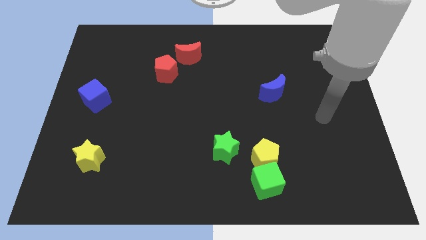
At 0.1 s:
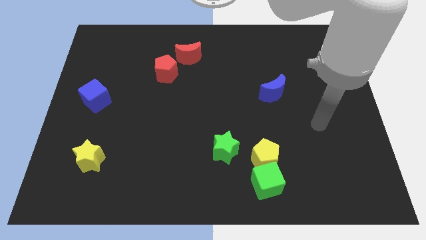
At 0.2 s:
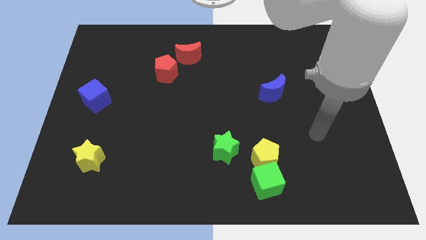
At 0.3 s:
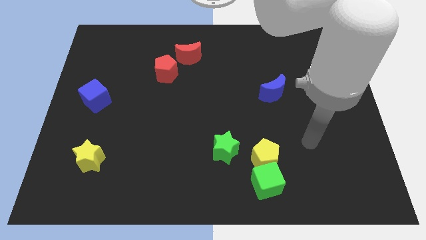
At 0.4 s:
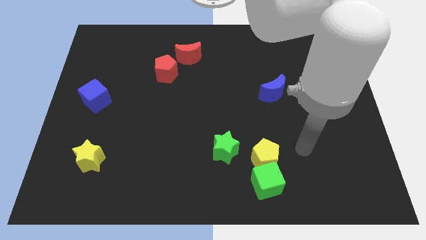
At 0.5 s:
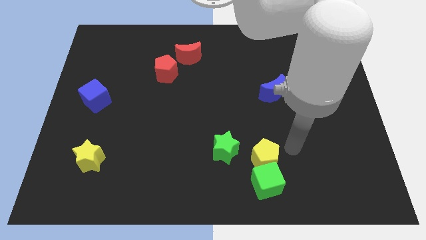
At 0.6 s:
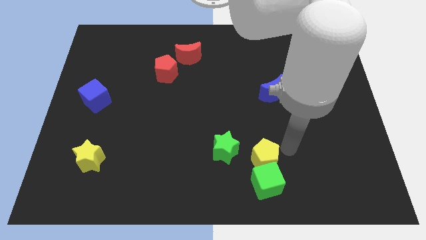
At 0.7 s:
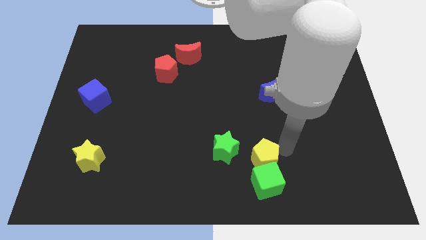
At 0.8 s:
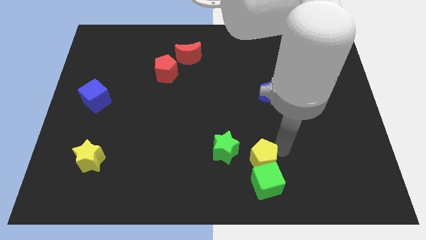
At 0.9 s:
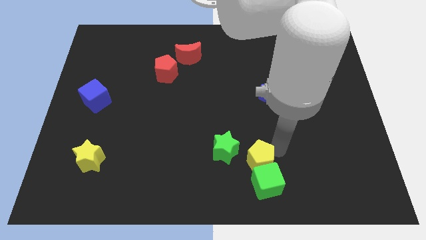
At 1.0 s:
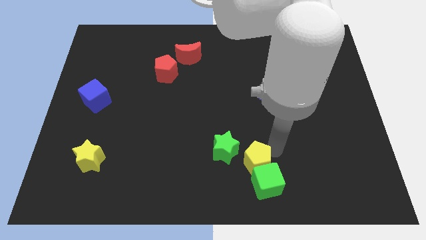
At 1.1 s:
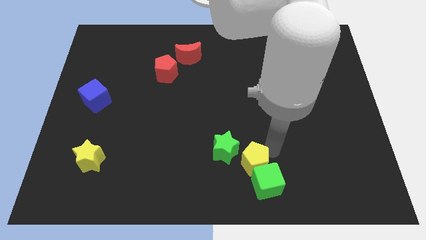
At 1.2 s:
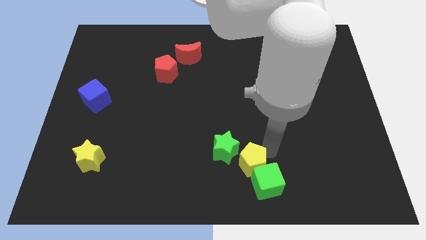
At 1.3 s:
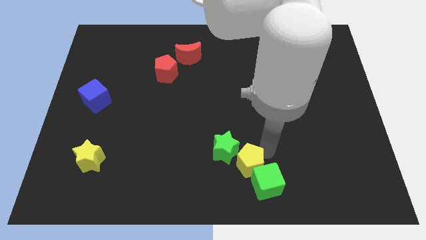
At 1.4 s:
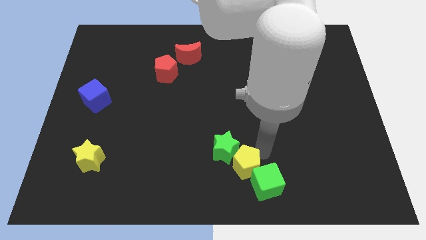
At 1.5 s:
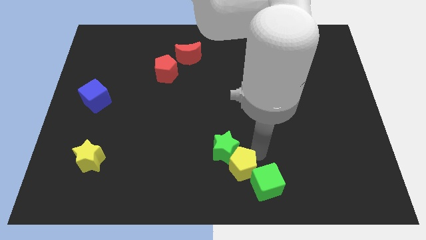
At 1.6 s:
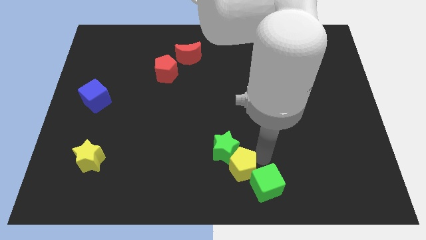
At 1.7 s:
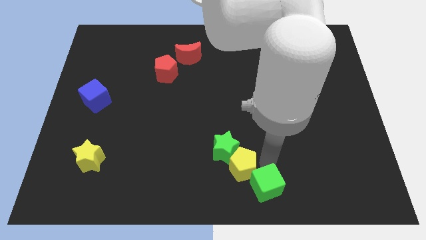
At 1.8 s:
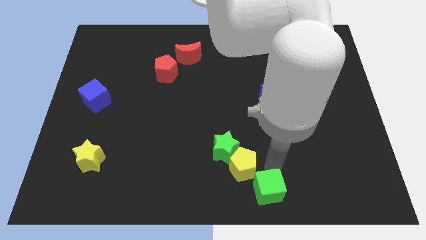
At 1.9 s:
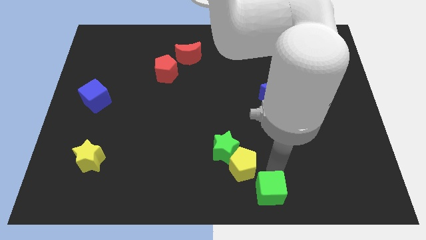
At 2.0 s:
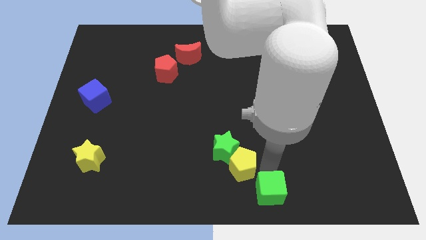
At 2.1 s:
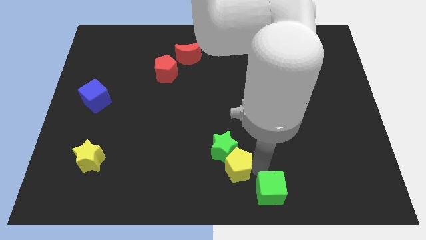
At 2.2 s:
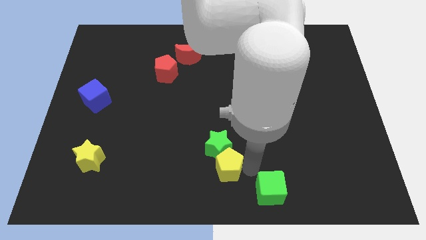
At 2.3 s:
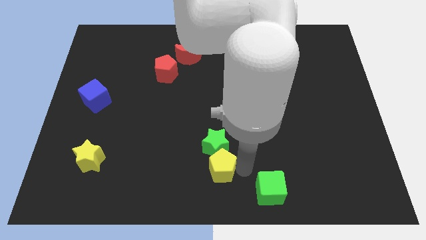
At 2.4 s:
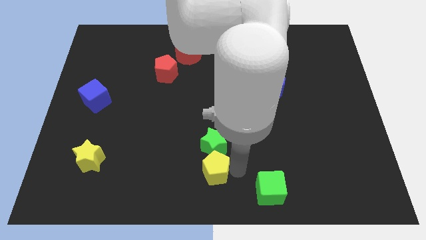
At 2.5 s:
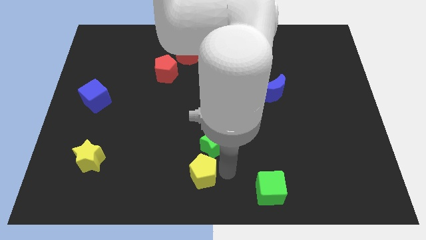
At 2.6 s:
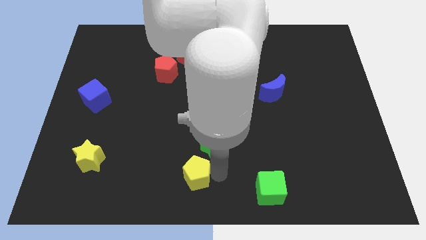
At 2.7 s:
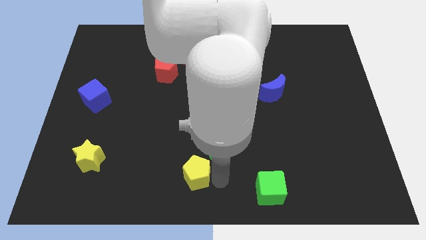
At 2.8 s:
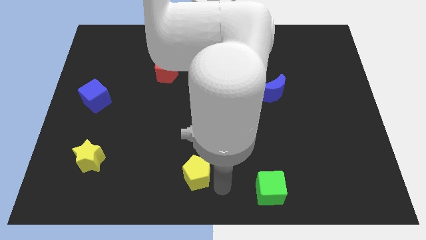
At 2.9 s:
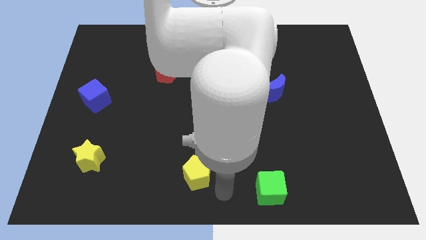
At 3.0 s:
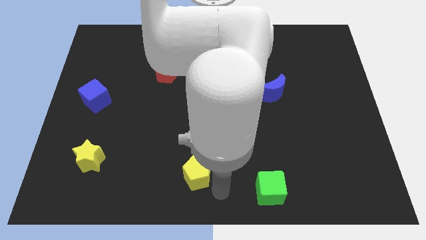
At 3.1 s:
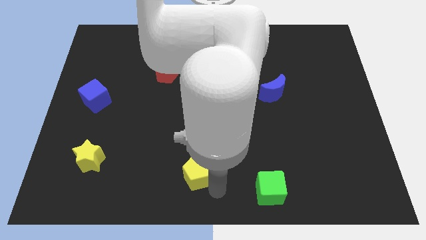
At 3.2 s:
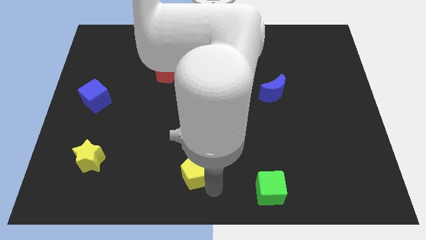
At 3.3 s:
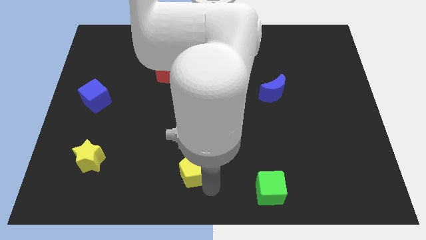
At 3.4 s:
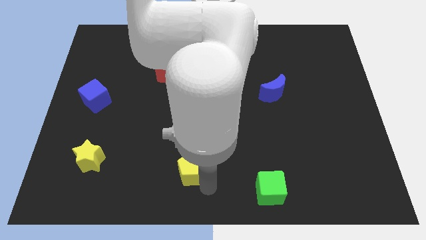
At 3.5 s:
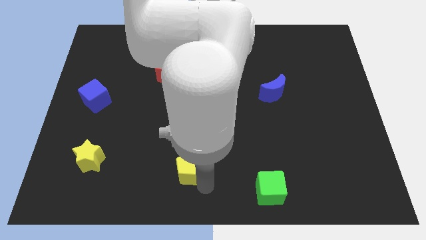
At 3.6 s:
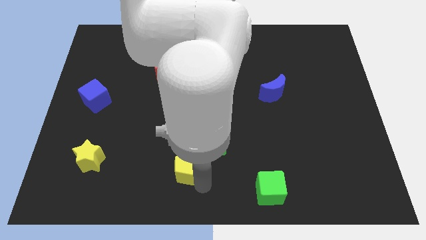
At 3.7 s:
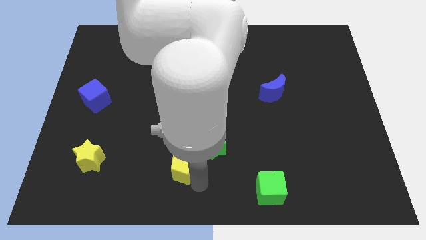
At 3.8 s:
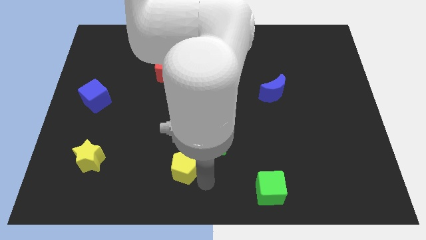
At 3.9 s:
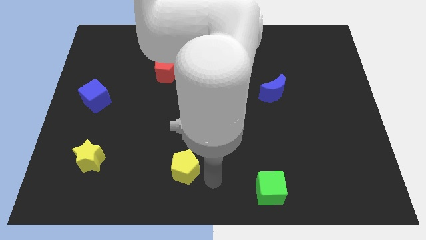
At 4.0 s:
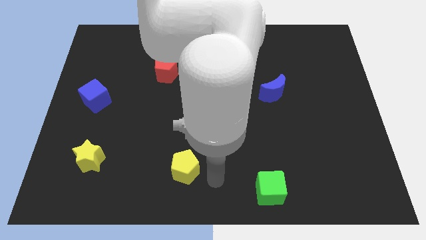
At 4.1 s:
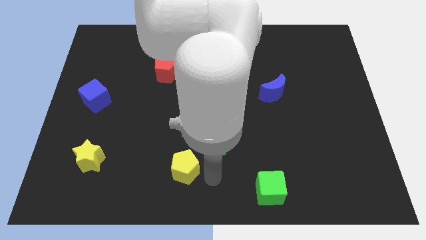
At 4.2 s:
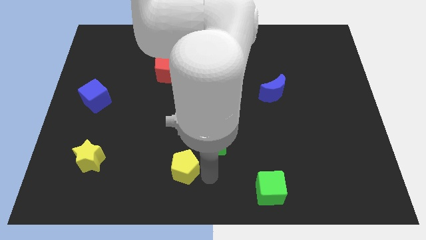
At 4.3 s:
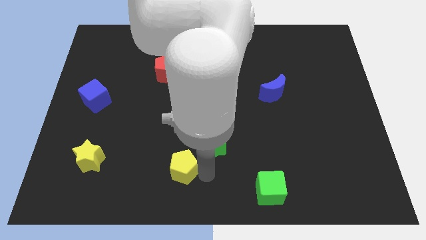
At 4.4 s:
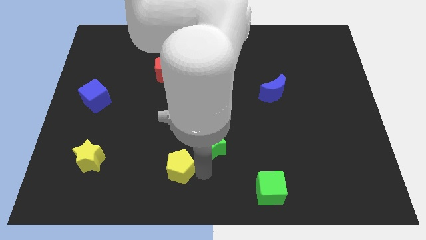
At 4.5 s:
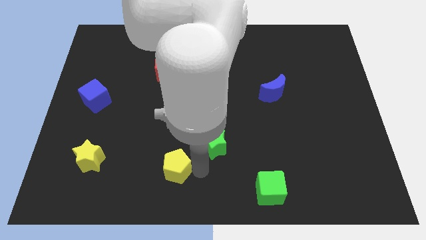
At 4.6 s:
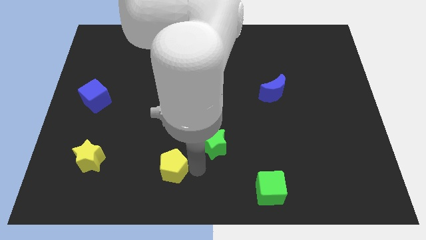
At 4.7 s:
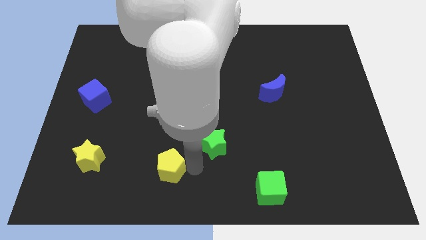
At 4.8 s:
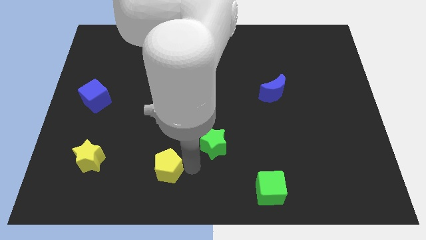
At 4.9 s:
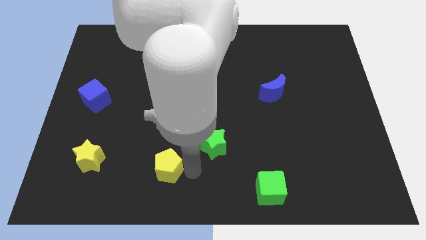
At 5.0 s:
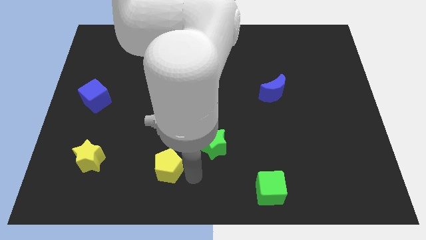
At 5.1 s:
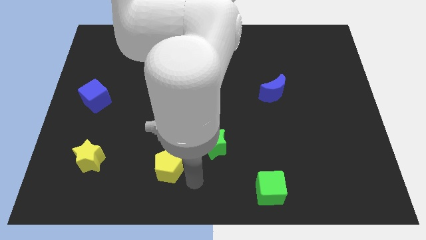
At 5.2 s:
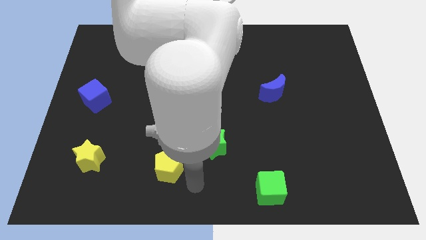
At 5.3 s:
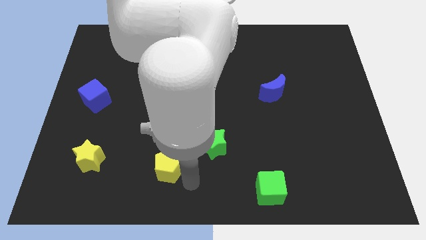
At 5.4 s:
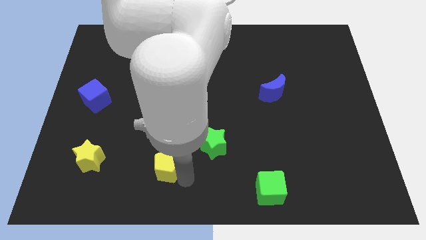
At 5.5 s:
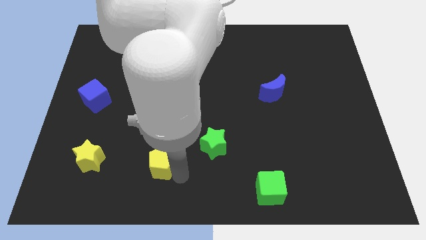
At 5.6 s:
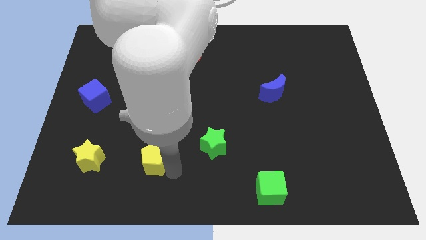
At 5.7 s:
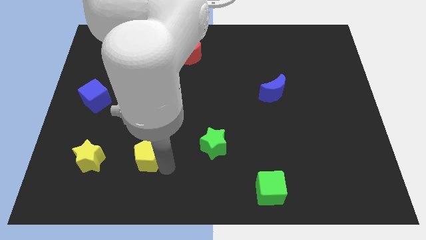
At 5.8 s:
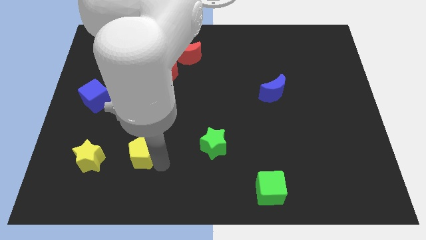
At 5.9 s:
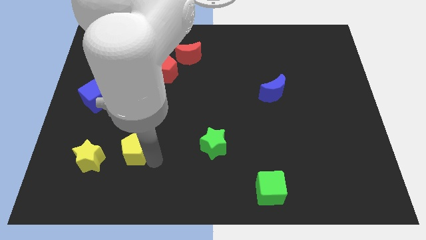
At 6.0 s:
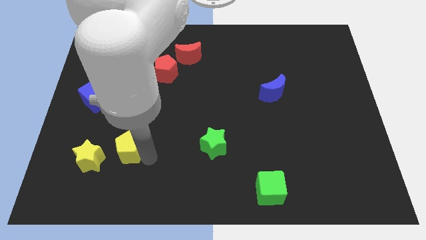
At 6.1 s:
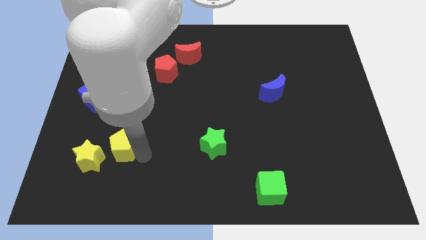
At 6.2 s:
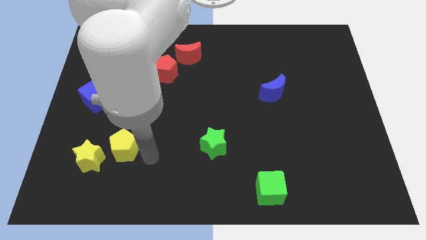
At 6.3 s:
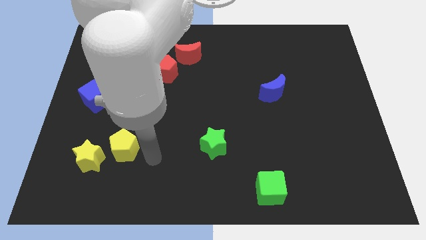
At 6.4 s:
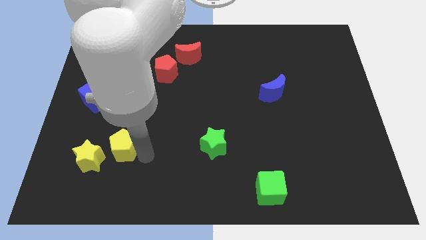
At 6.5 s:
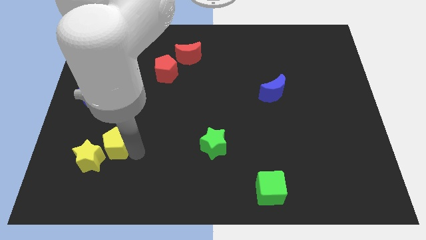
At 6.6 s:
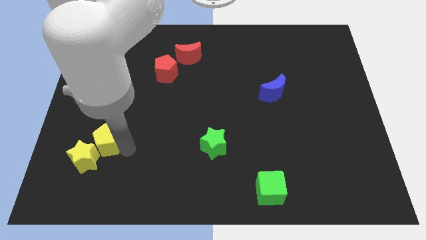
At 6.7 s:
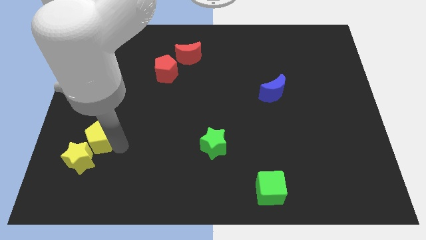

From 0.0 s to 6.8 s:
push the yellow pentagon to the bottom side of the blue cube

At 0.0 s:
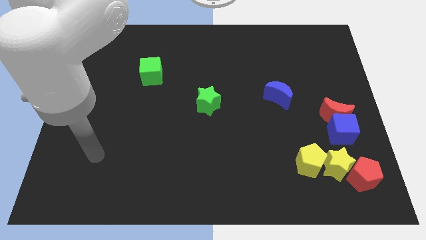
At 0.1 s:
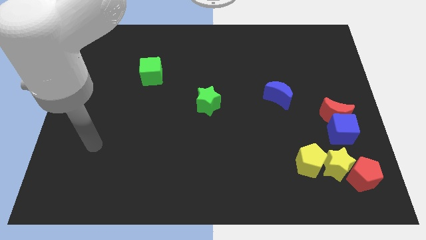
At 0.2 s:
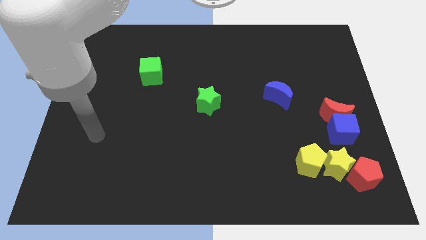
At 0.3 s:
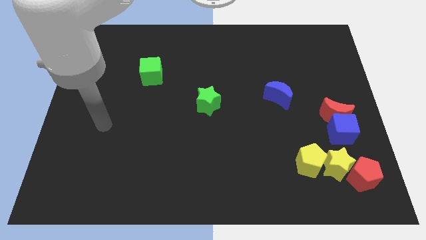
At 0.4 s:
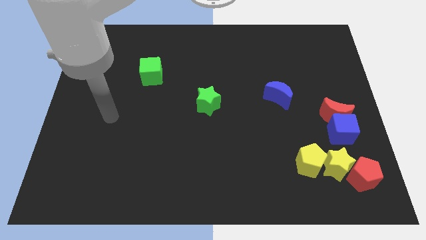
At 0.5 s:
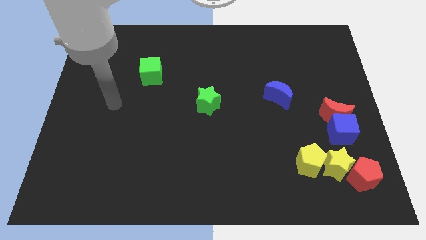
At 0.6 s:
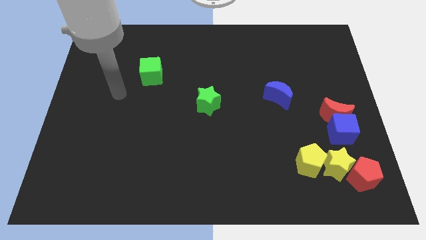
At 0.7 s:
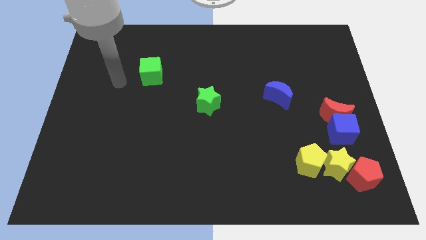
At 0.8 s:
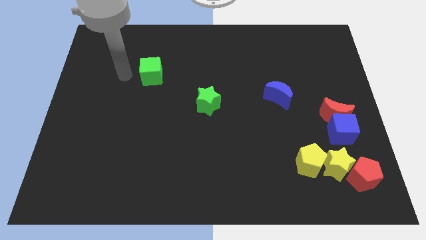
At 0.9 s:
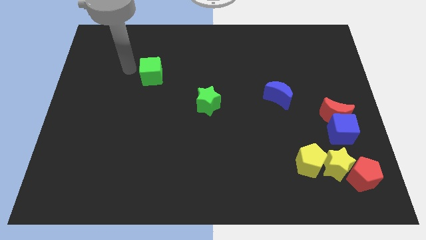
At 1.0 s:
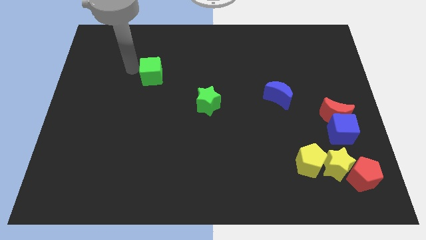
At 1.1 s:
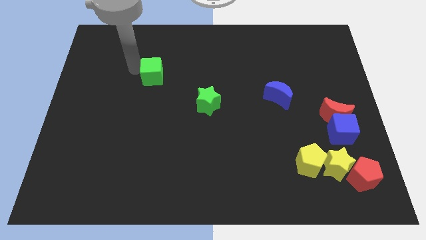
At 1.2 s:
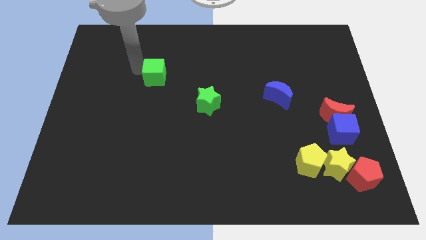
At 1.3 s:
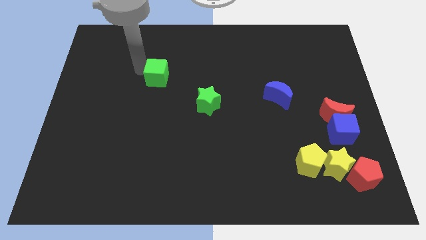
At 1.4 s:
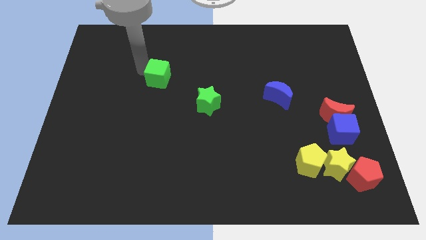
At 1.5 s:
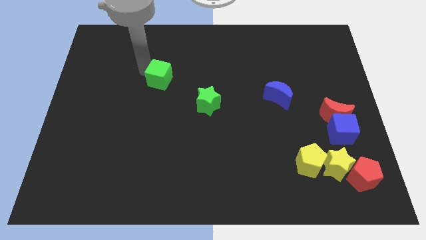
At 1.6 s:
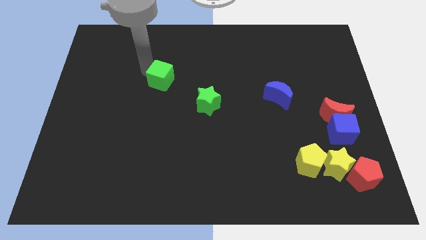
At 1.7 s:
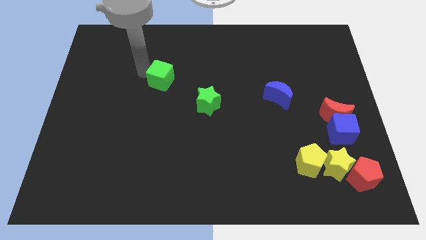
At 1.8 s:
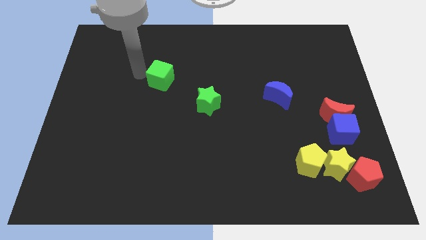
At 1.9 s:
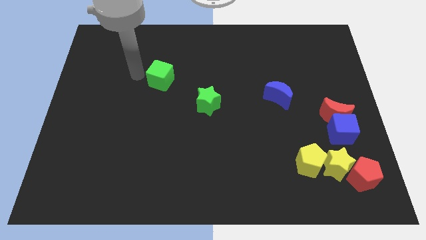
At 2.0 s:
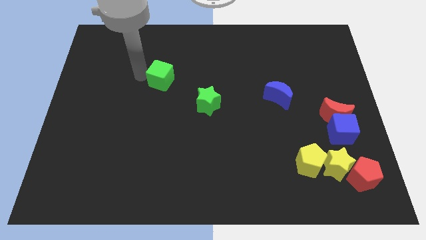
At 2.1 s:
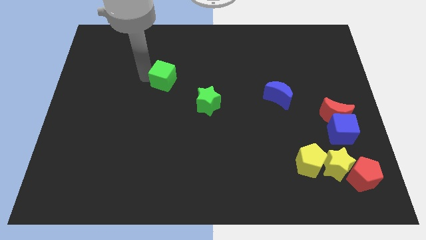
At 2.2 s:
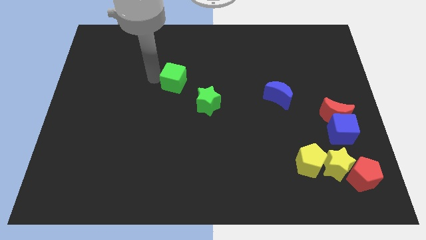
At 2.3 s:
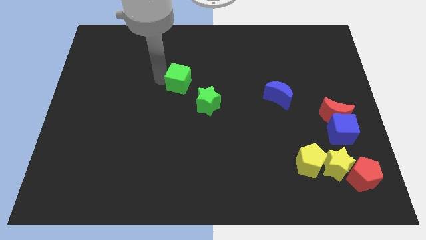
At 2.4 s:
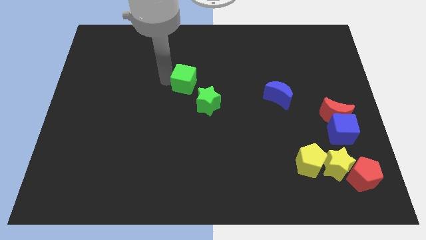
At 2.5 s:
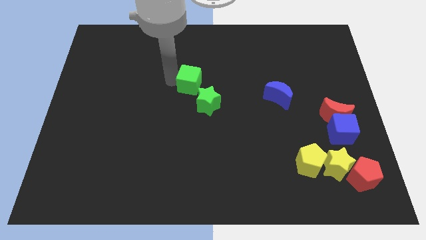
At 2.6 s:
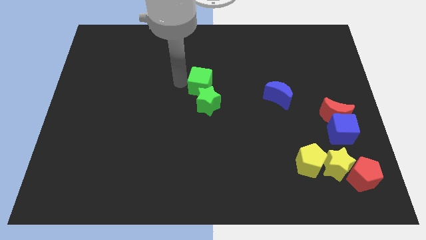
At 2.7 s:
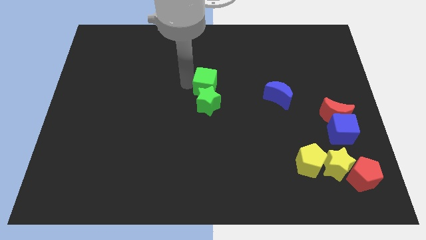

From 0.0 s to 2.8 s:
move the green cube diagonally up and to the right of the green star
